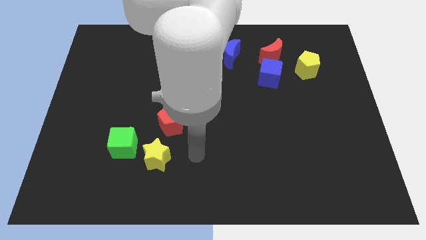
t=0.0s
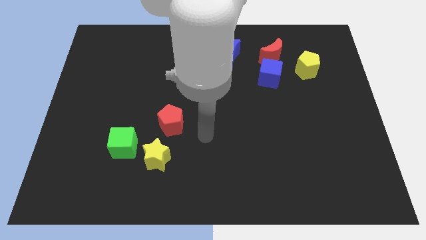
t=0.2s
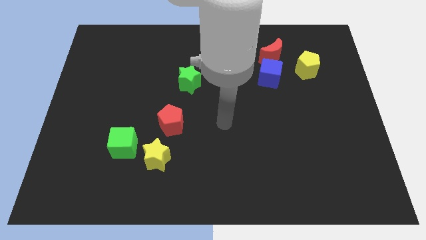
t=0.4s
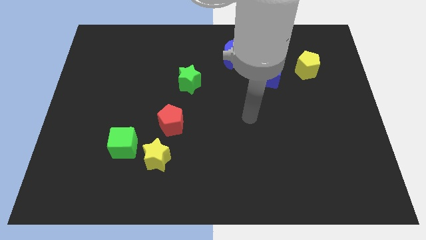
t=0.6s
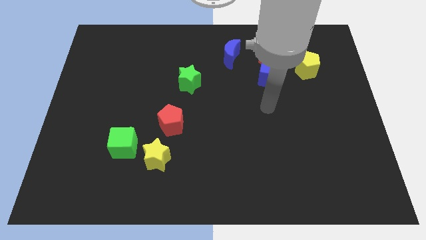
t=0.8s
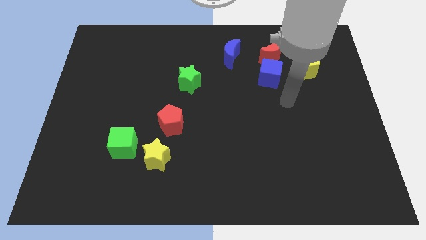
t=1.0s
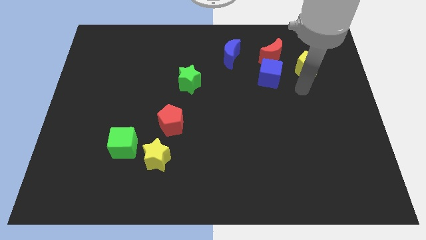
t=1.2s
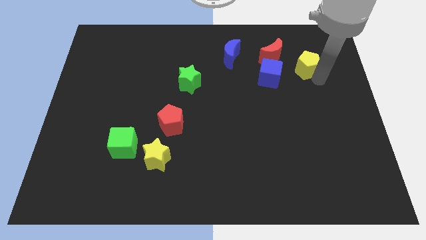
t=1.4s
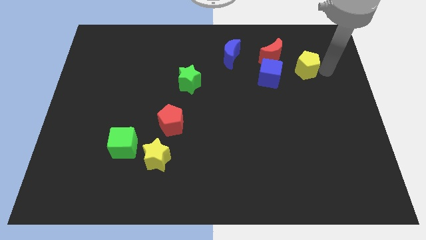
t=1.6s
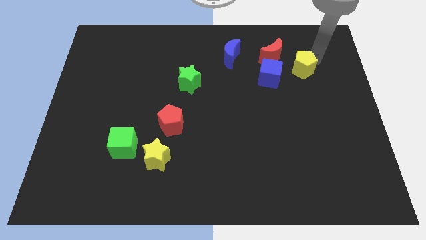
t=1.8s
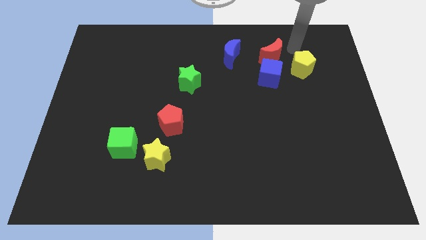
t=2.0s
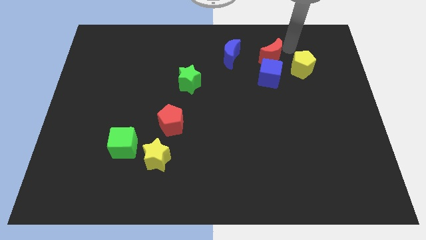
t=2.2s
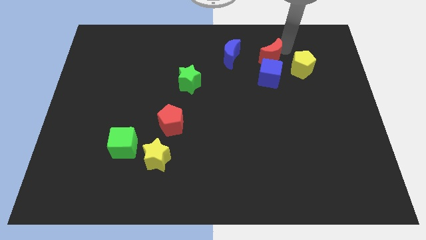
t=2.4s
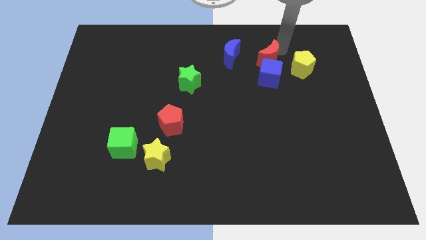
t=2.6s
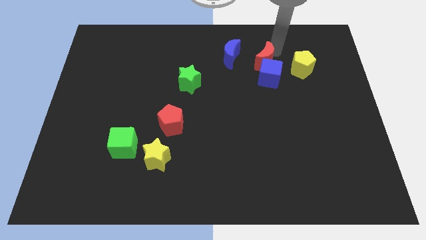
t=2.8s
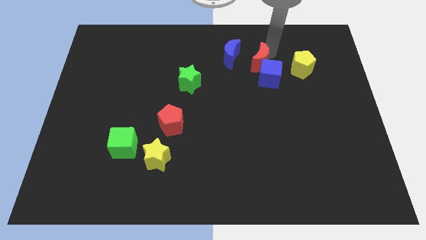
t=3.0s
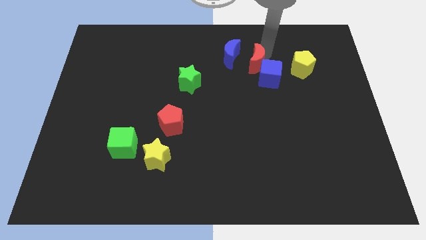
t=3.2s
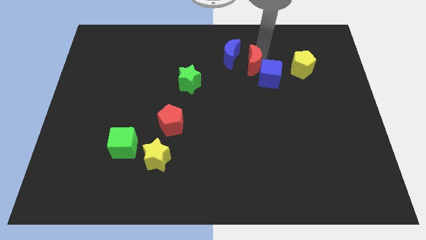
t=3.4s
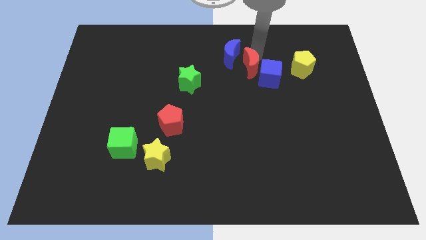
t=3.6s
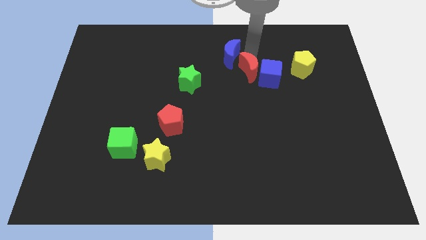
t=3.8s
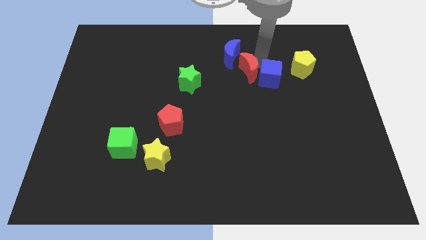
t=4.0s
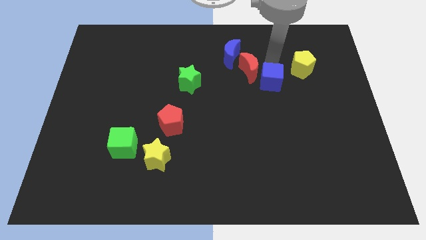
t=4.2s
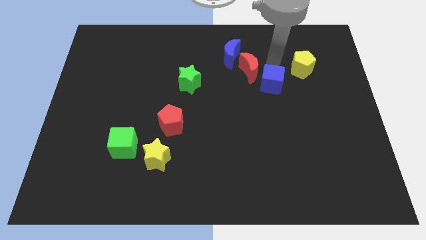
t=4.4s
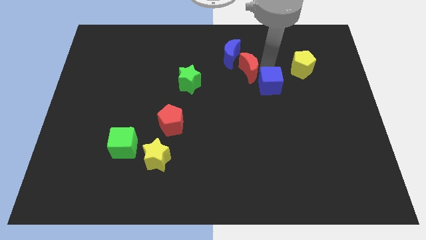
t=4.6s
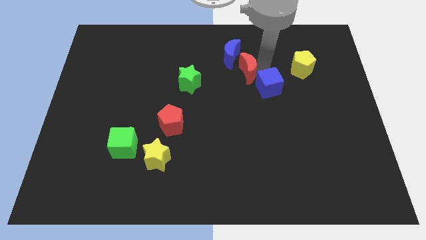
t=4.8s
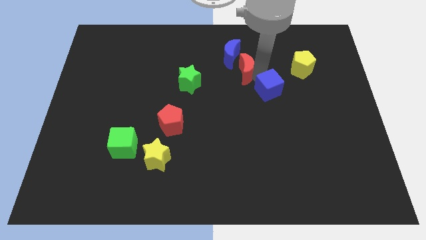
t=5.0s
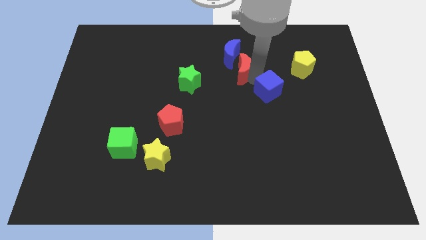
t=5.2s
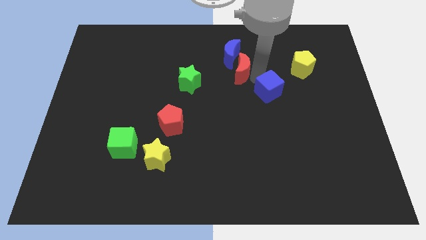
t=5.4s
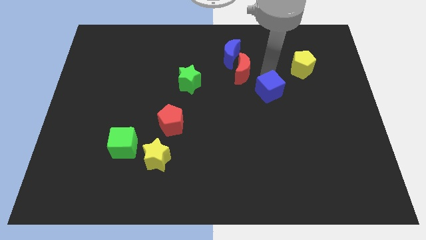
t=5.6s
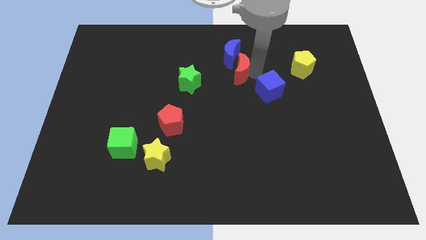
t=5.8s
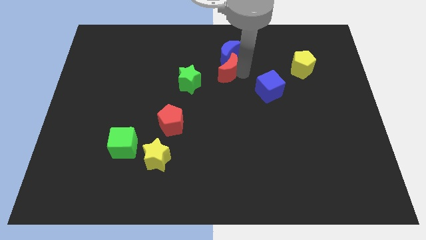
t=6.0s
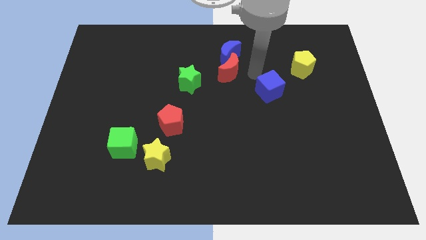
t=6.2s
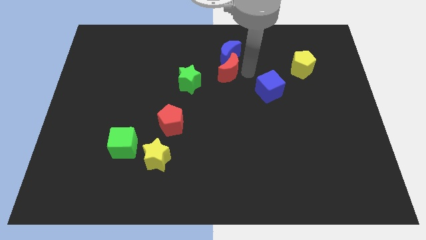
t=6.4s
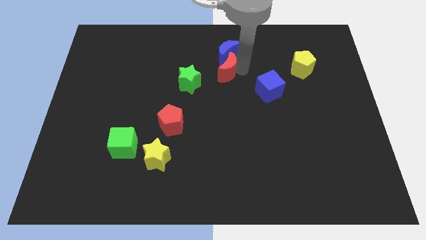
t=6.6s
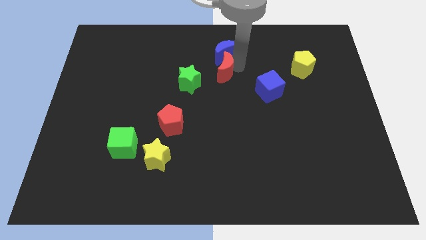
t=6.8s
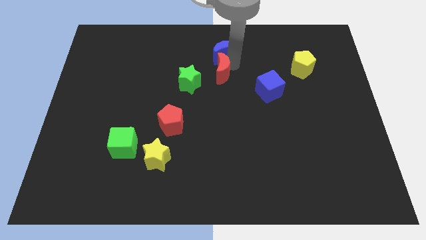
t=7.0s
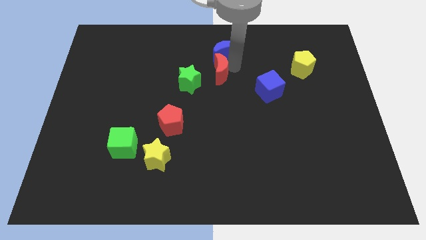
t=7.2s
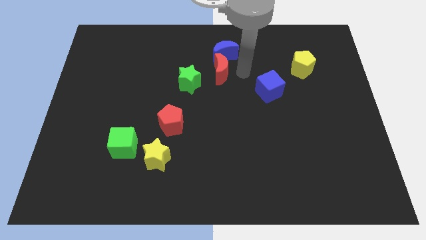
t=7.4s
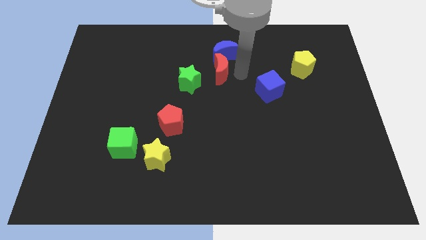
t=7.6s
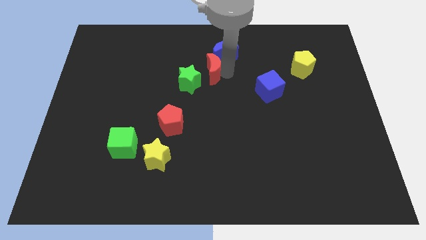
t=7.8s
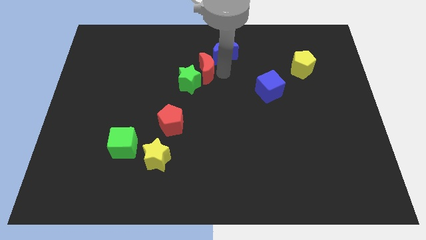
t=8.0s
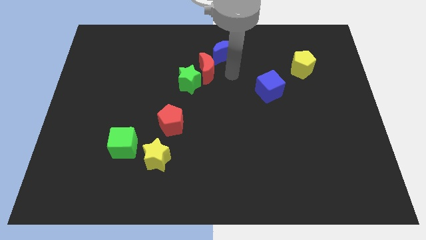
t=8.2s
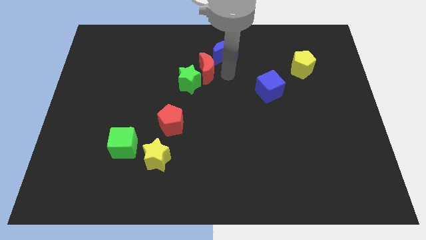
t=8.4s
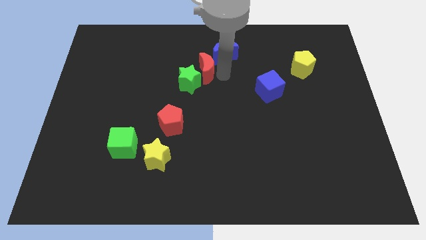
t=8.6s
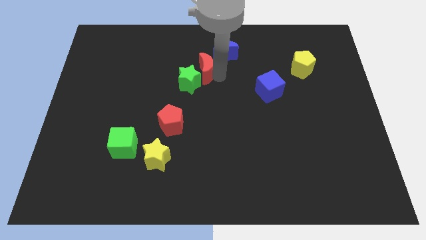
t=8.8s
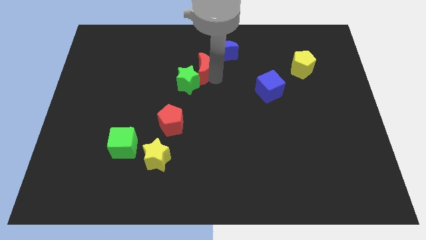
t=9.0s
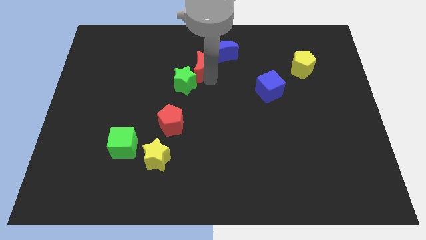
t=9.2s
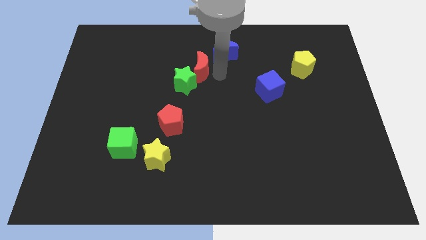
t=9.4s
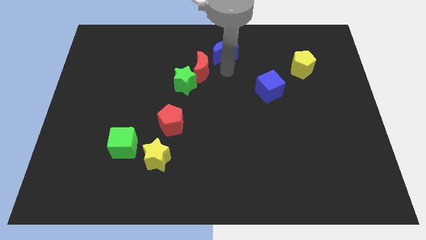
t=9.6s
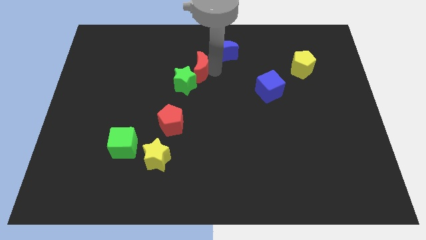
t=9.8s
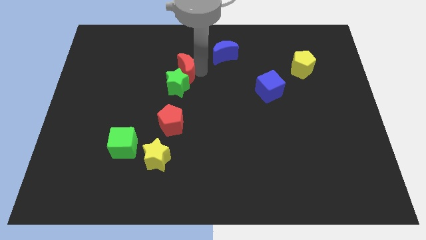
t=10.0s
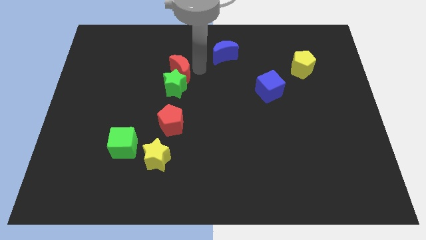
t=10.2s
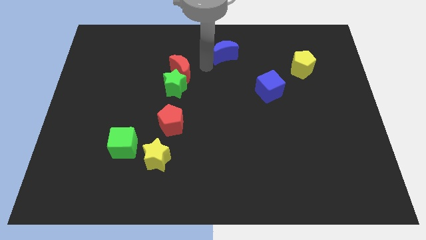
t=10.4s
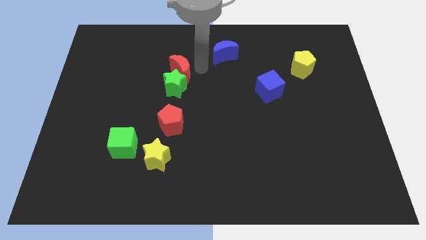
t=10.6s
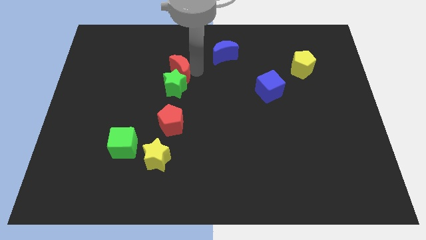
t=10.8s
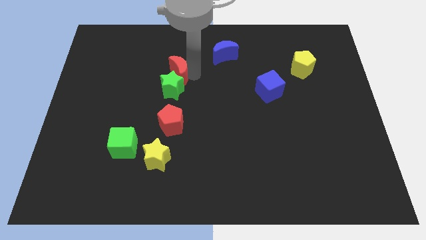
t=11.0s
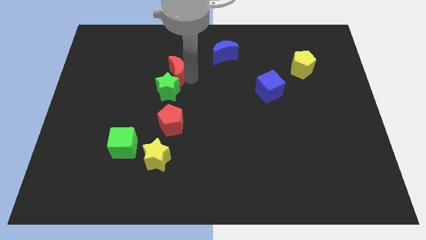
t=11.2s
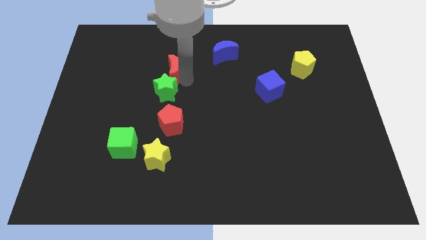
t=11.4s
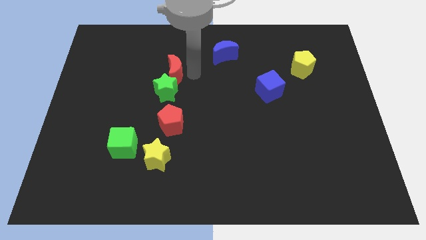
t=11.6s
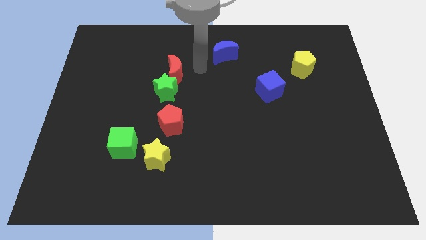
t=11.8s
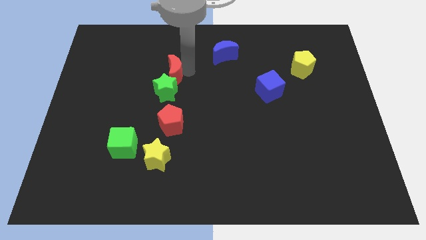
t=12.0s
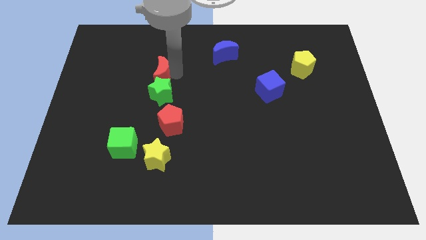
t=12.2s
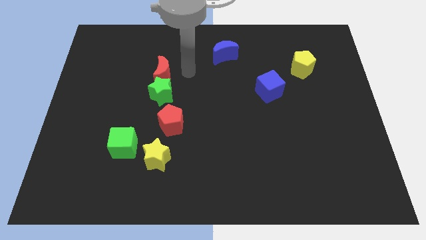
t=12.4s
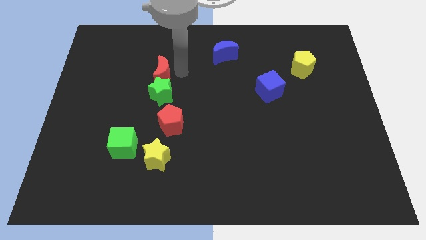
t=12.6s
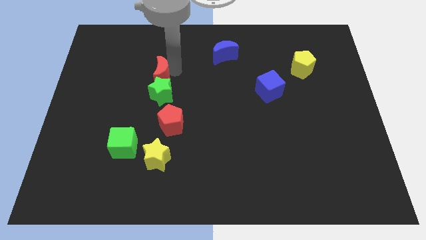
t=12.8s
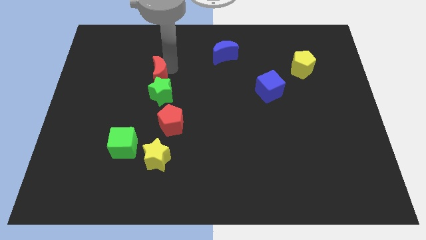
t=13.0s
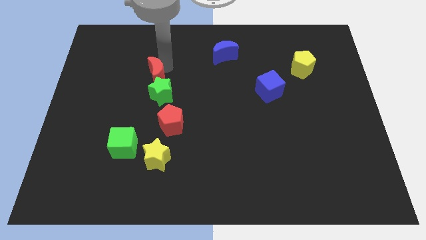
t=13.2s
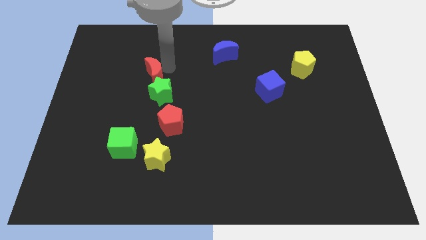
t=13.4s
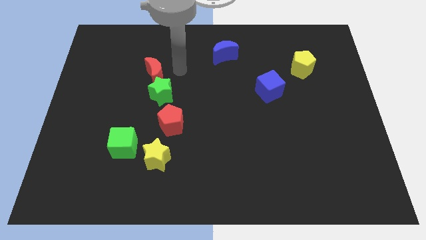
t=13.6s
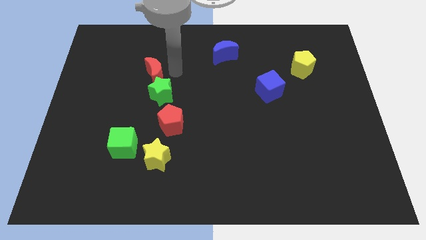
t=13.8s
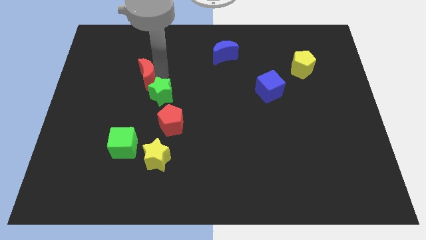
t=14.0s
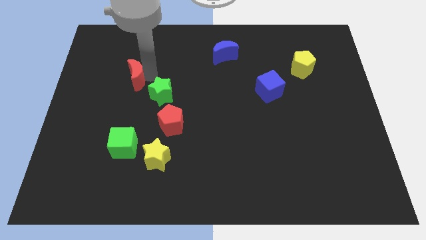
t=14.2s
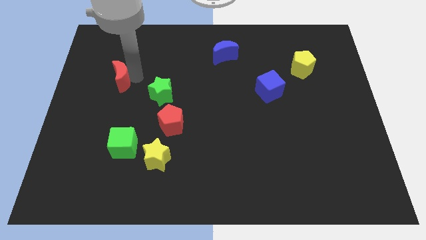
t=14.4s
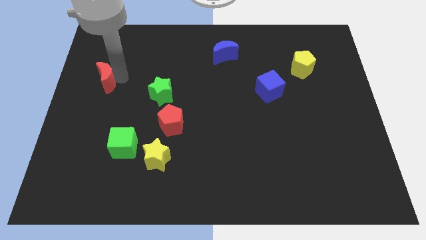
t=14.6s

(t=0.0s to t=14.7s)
slide the red moon to the left side of the board
